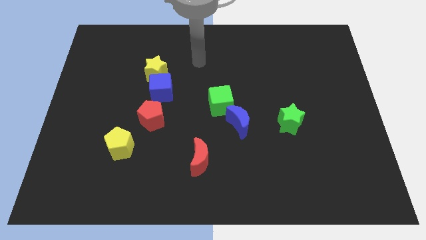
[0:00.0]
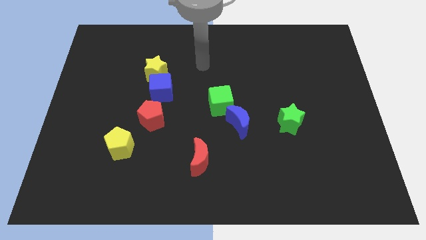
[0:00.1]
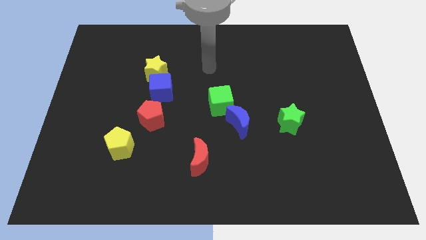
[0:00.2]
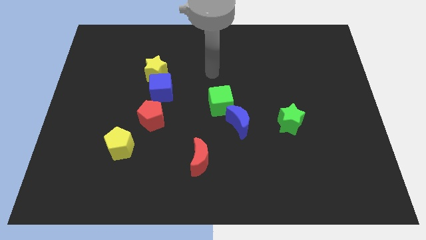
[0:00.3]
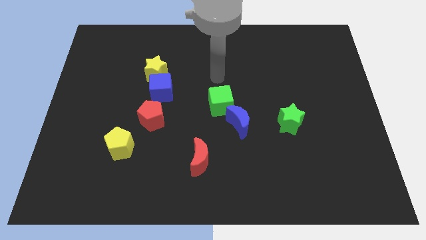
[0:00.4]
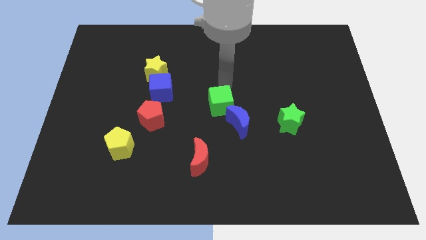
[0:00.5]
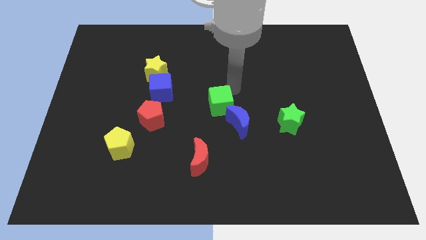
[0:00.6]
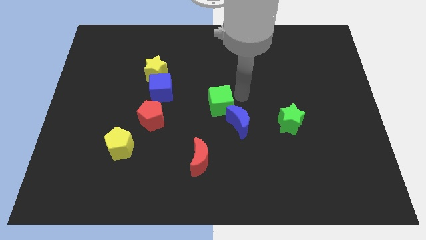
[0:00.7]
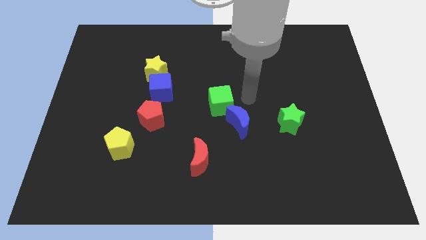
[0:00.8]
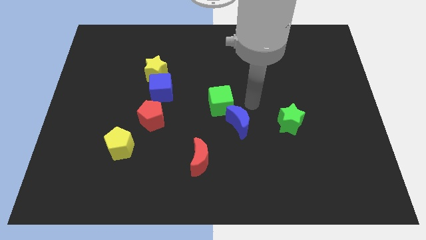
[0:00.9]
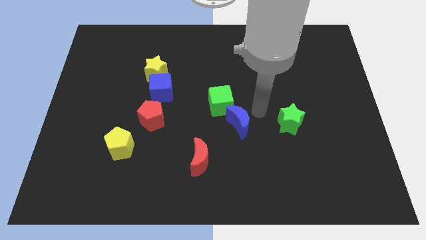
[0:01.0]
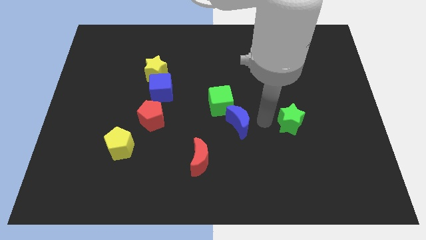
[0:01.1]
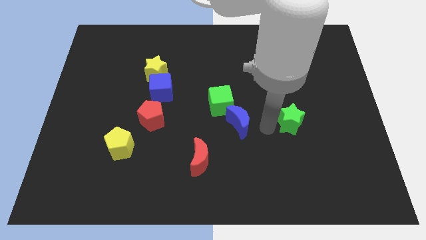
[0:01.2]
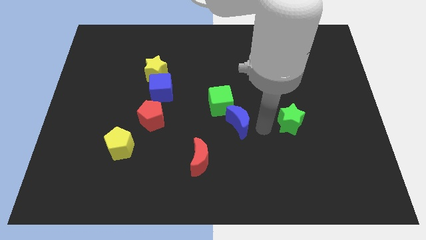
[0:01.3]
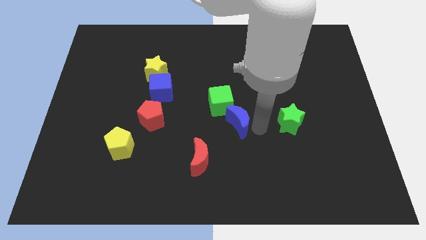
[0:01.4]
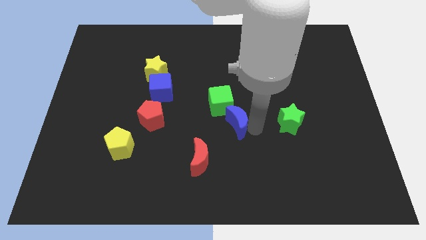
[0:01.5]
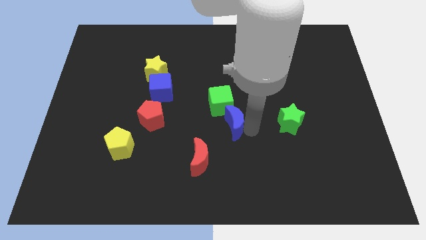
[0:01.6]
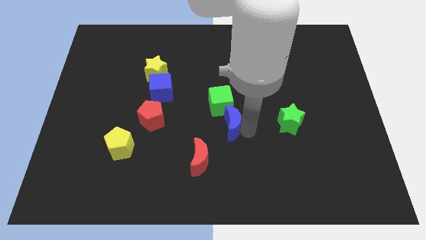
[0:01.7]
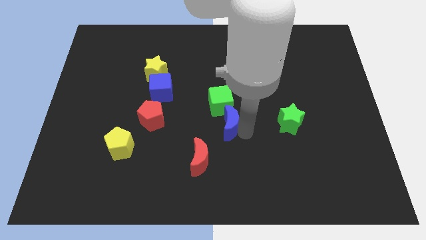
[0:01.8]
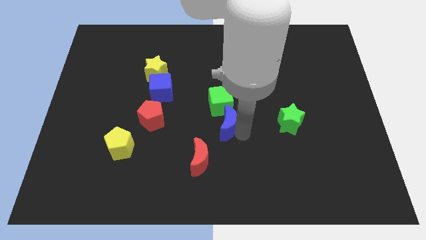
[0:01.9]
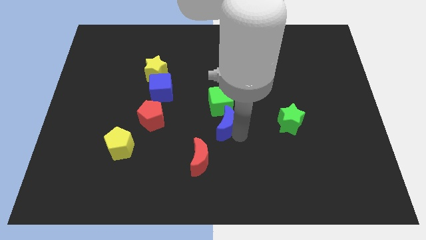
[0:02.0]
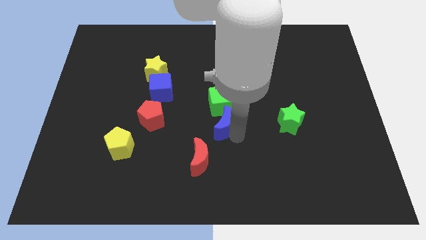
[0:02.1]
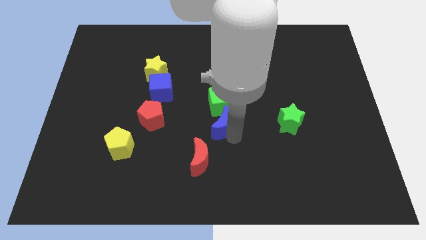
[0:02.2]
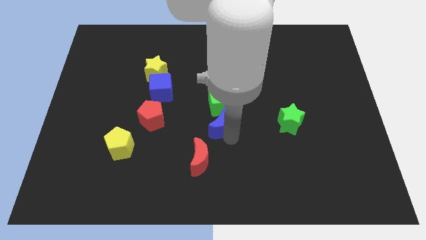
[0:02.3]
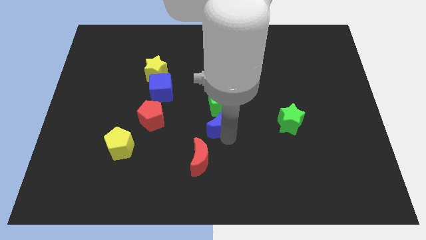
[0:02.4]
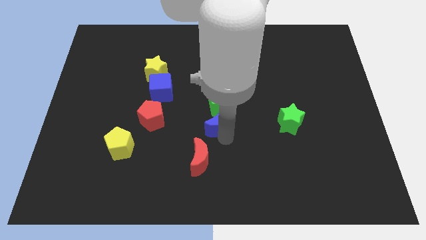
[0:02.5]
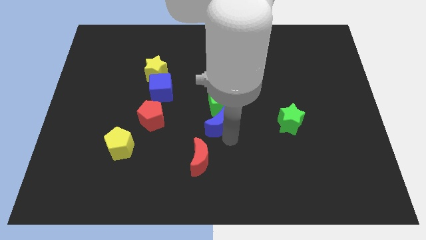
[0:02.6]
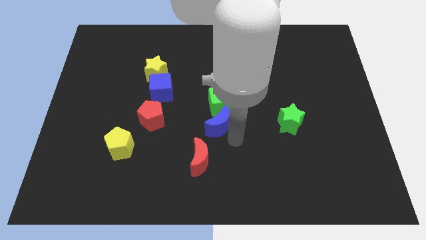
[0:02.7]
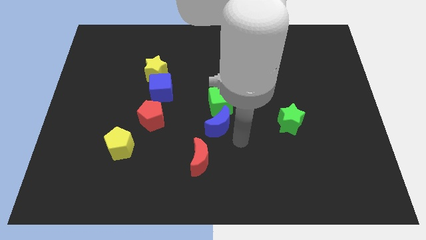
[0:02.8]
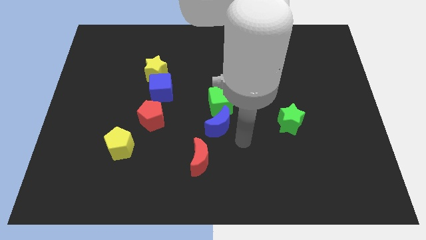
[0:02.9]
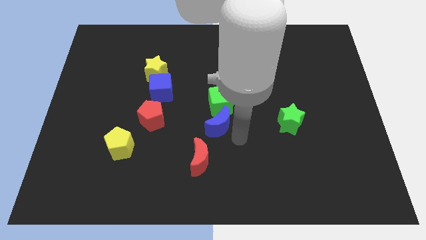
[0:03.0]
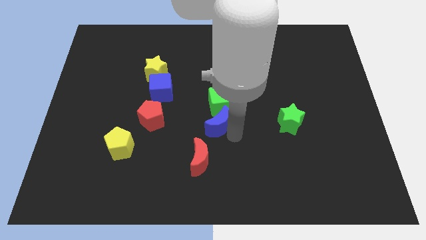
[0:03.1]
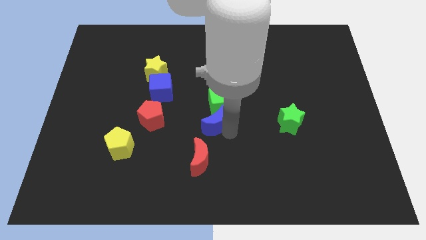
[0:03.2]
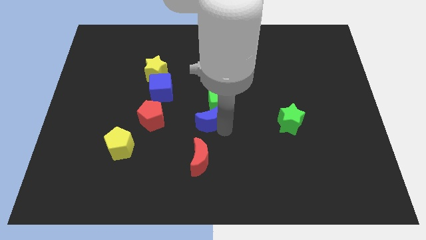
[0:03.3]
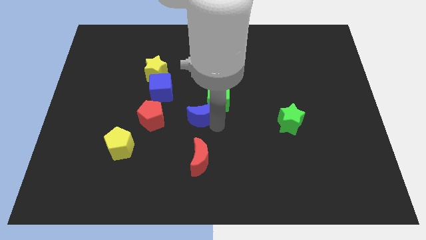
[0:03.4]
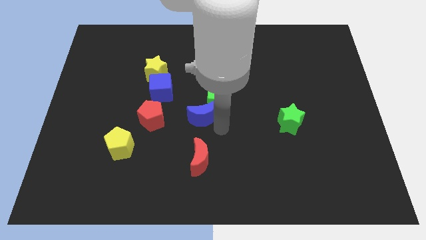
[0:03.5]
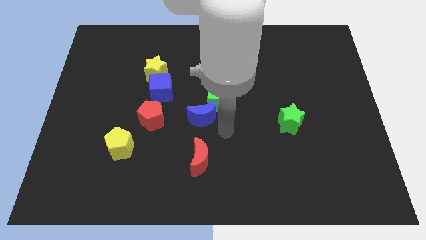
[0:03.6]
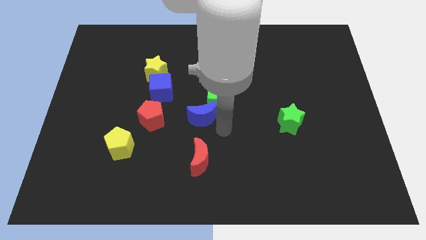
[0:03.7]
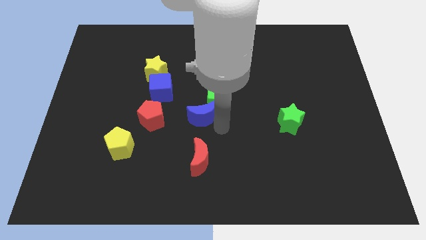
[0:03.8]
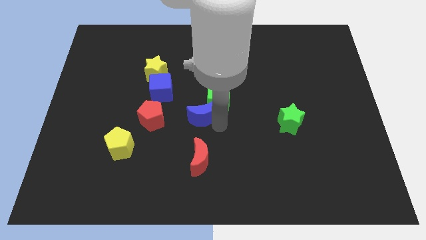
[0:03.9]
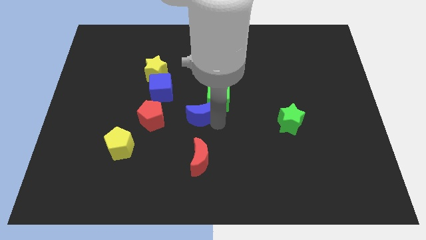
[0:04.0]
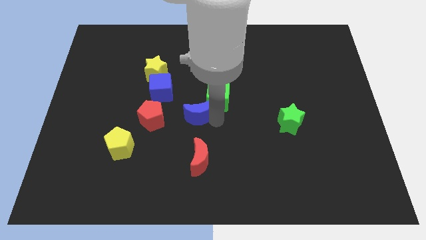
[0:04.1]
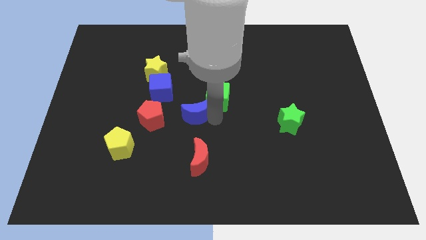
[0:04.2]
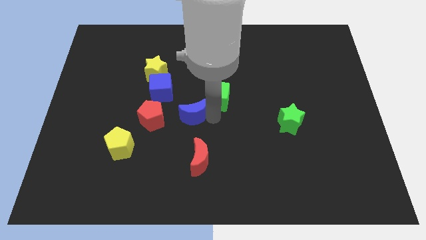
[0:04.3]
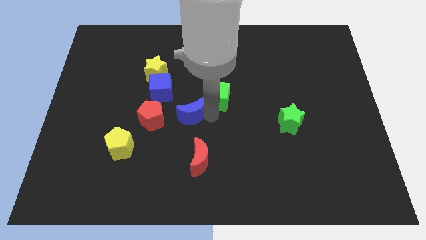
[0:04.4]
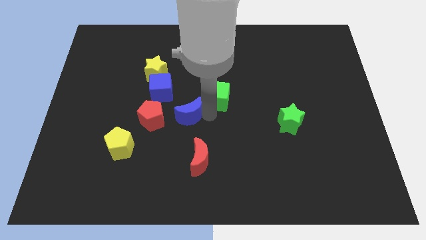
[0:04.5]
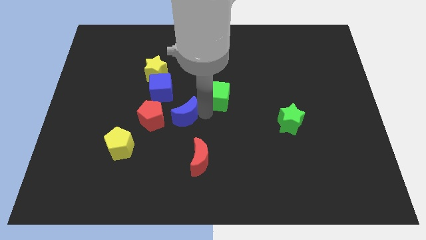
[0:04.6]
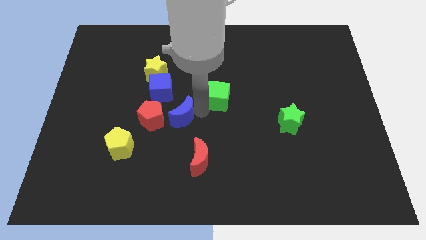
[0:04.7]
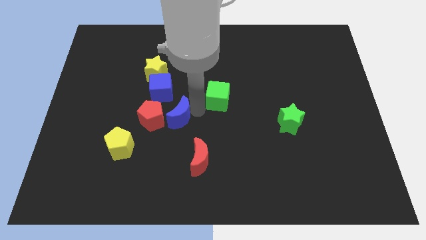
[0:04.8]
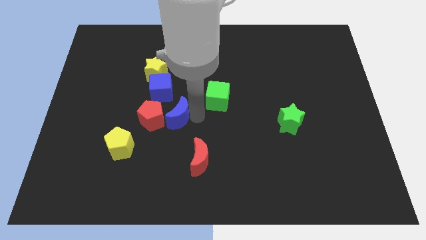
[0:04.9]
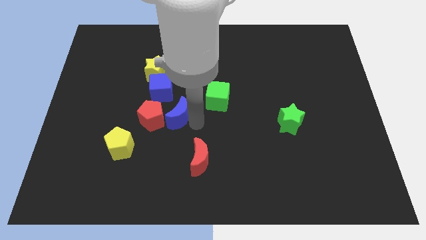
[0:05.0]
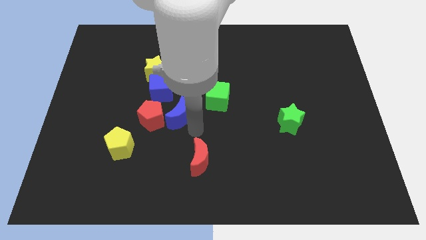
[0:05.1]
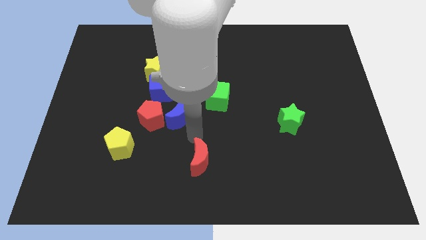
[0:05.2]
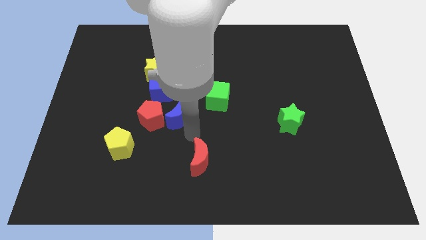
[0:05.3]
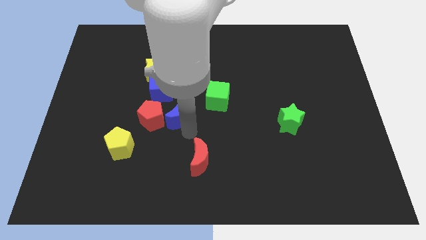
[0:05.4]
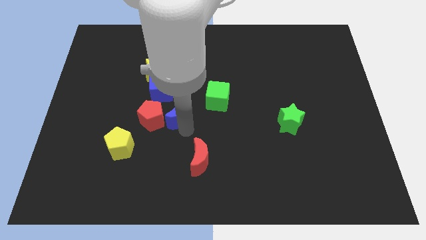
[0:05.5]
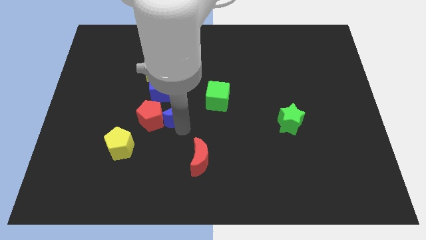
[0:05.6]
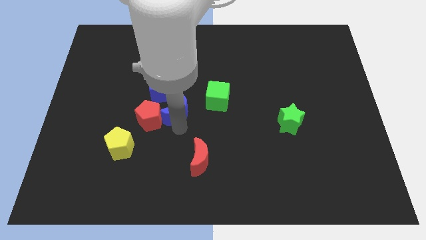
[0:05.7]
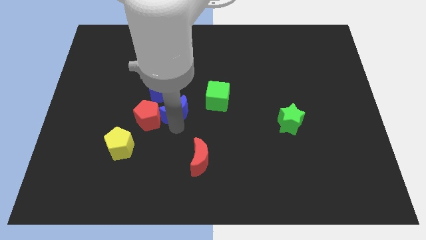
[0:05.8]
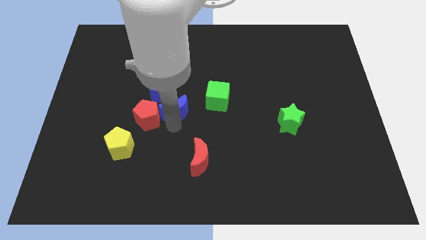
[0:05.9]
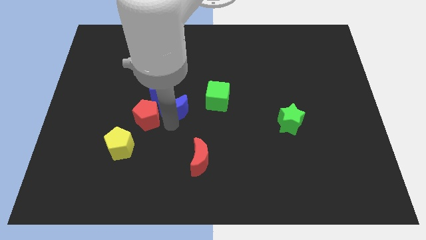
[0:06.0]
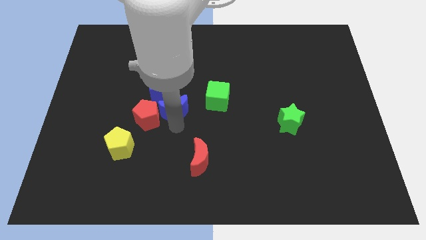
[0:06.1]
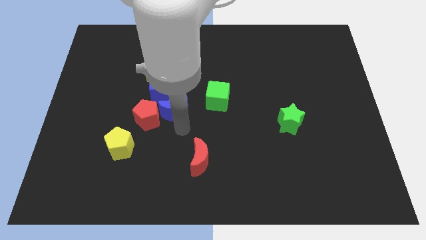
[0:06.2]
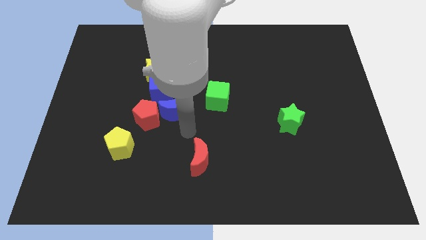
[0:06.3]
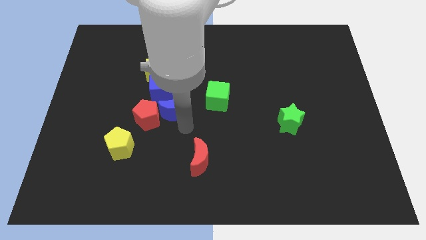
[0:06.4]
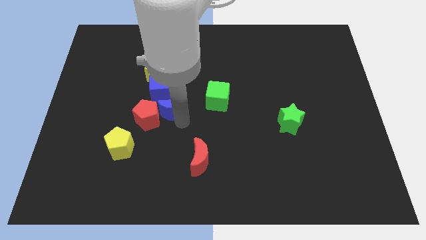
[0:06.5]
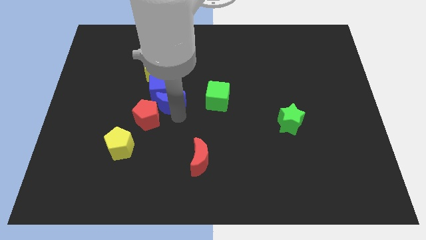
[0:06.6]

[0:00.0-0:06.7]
push the blue moon towards the blue cube
